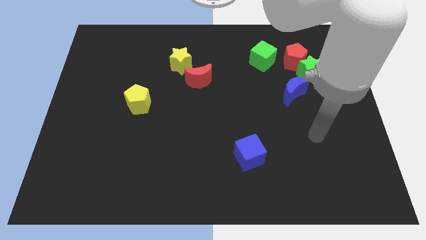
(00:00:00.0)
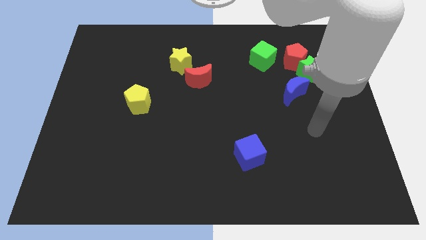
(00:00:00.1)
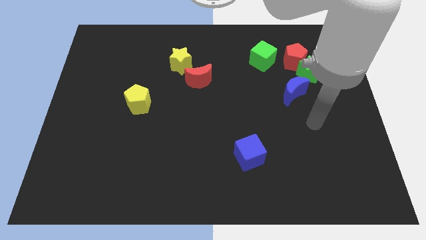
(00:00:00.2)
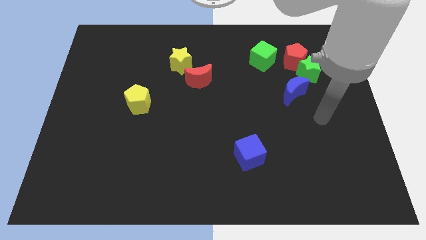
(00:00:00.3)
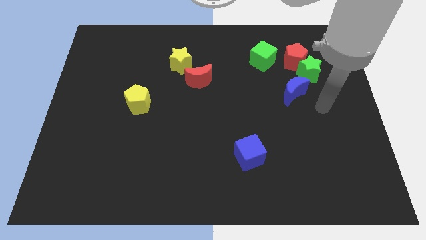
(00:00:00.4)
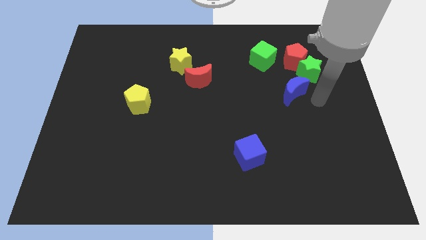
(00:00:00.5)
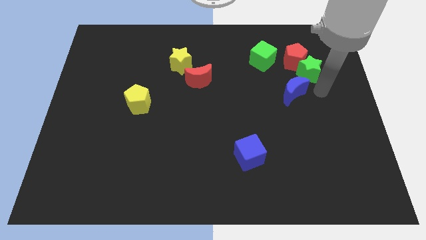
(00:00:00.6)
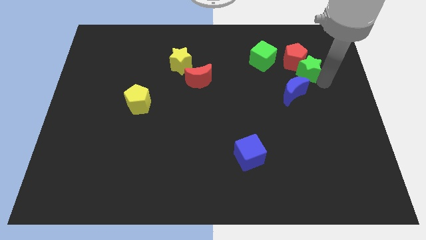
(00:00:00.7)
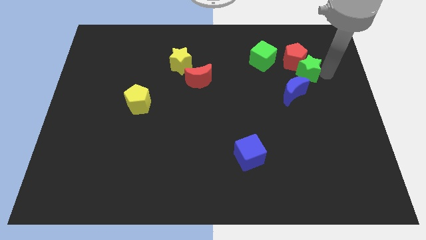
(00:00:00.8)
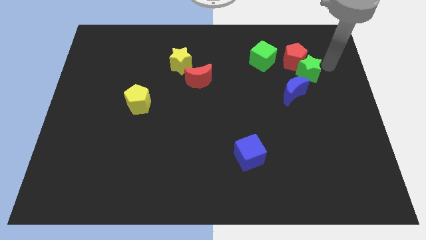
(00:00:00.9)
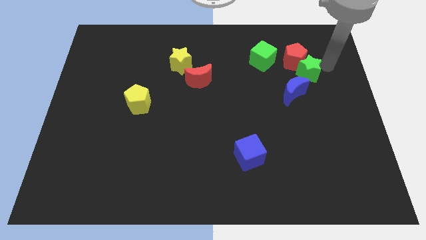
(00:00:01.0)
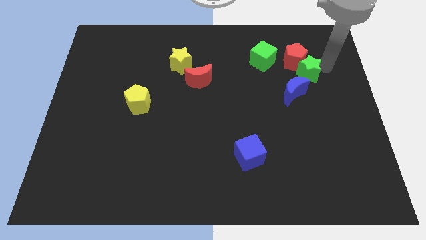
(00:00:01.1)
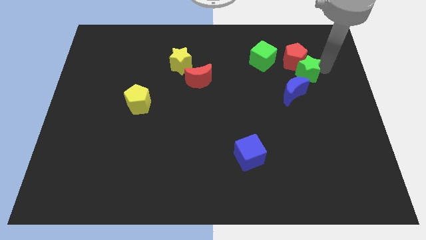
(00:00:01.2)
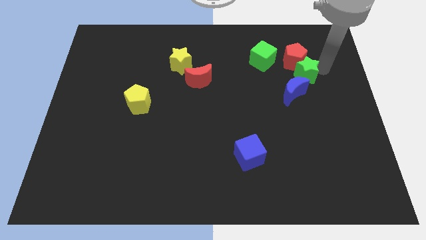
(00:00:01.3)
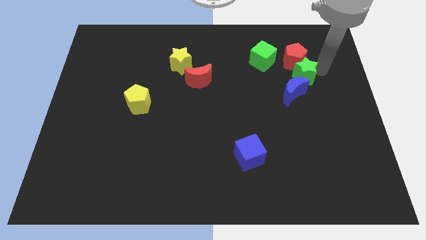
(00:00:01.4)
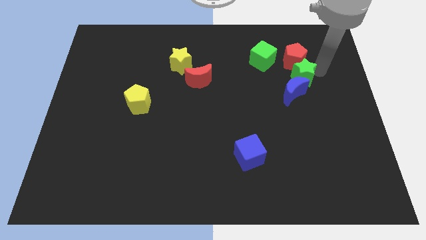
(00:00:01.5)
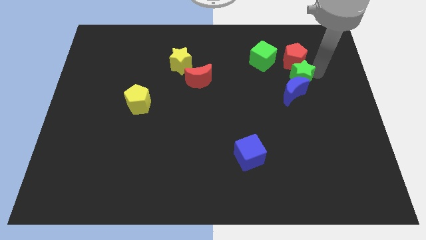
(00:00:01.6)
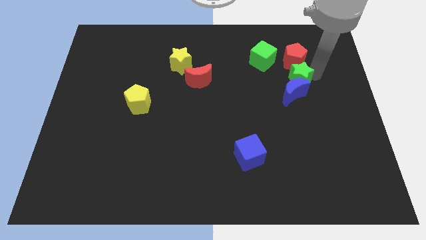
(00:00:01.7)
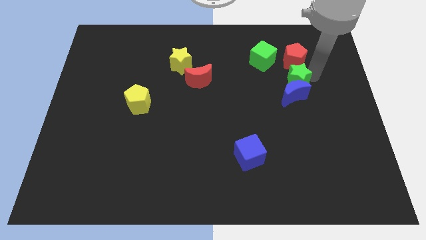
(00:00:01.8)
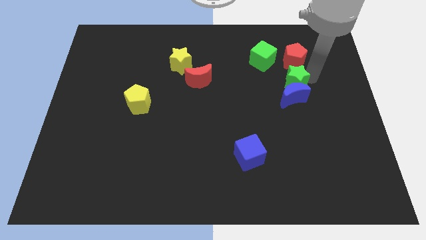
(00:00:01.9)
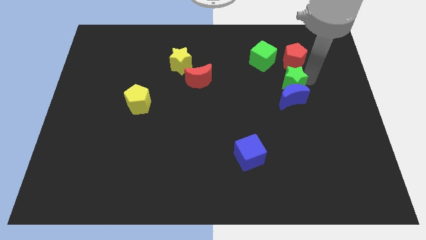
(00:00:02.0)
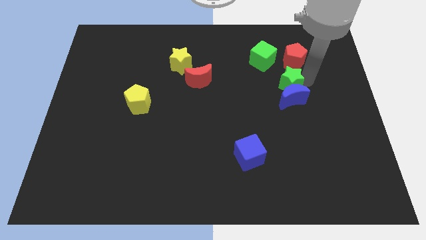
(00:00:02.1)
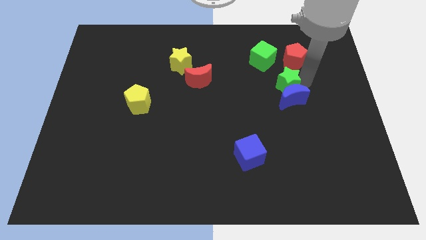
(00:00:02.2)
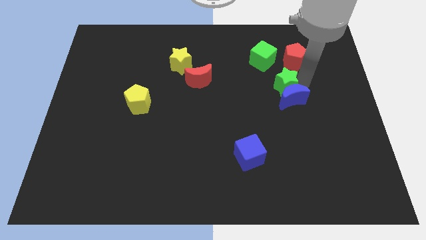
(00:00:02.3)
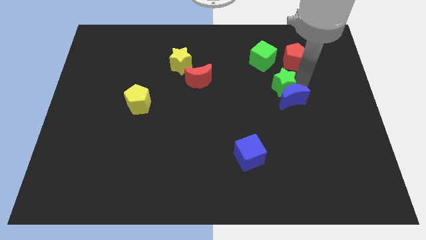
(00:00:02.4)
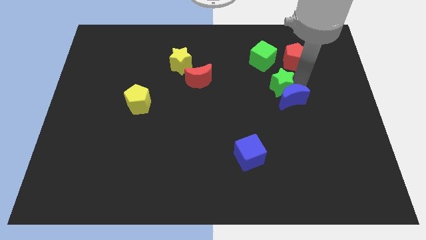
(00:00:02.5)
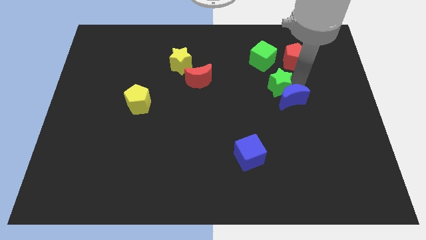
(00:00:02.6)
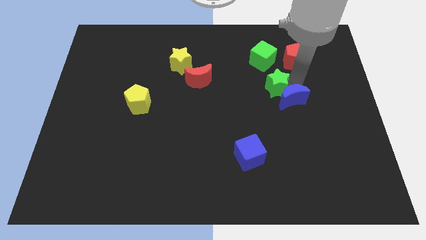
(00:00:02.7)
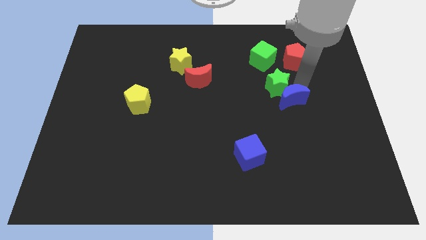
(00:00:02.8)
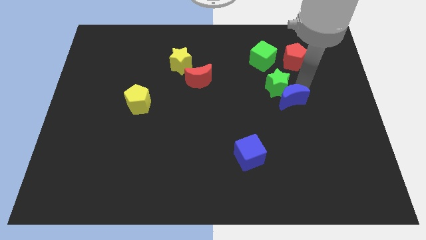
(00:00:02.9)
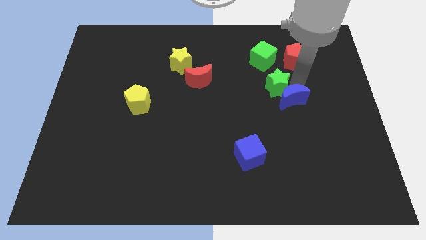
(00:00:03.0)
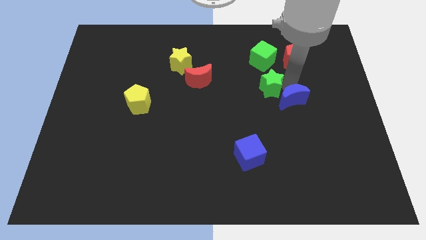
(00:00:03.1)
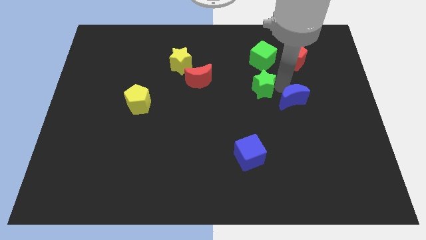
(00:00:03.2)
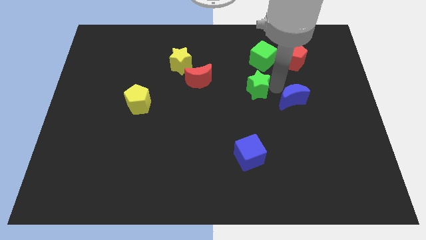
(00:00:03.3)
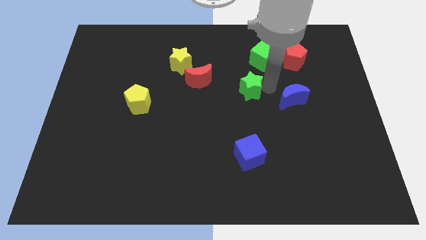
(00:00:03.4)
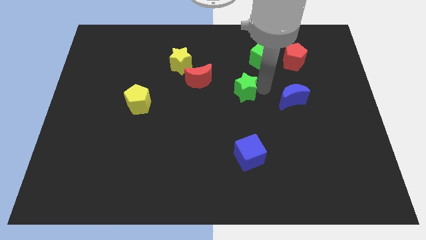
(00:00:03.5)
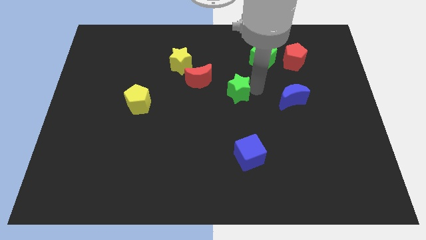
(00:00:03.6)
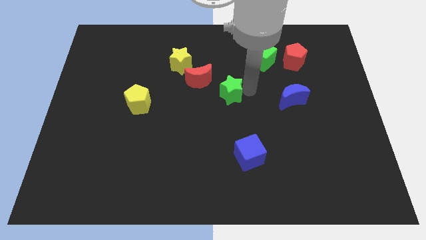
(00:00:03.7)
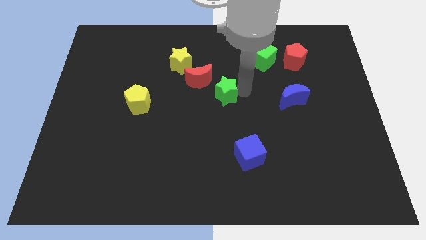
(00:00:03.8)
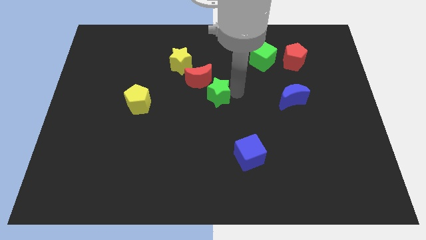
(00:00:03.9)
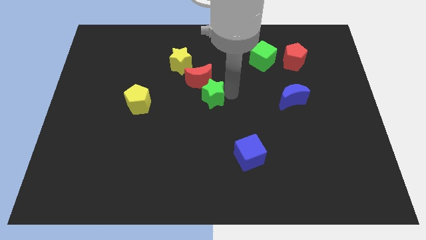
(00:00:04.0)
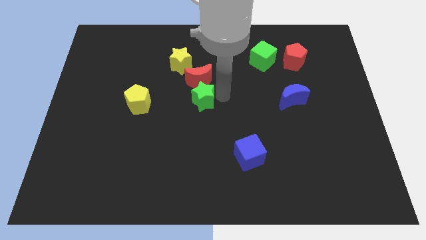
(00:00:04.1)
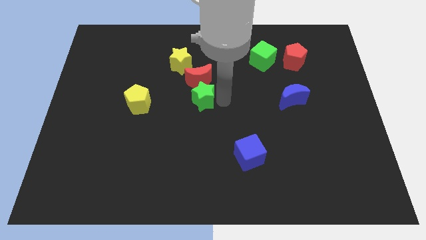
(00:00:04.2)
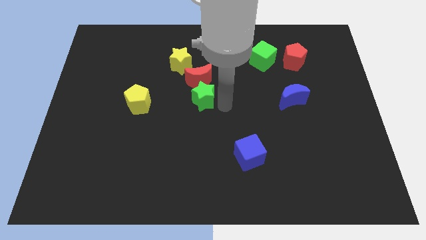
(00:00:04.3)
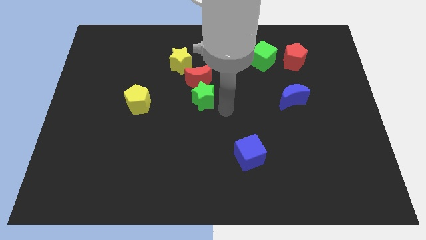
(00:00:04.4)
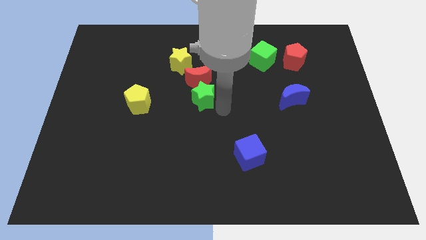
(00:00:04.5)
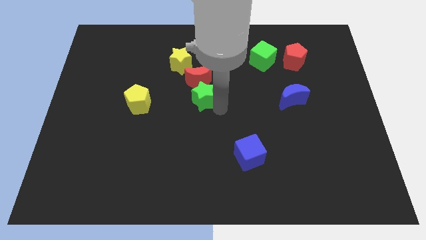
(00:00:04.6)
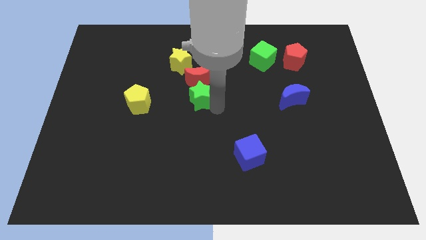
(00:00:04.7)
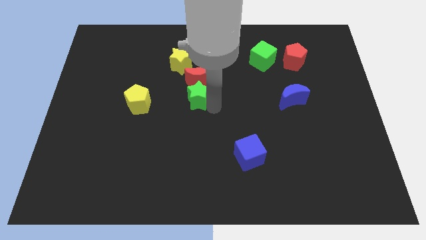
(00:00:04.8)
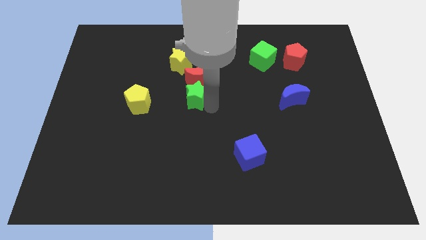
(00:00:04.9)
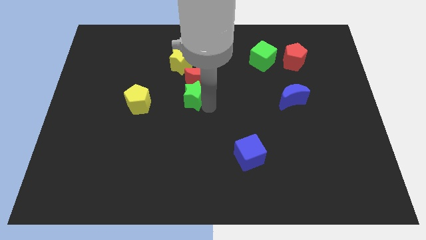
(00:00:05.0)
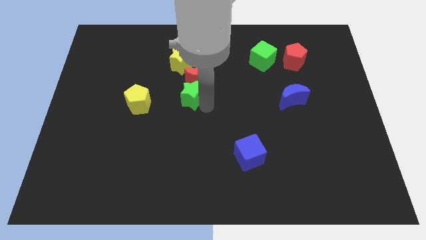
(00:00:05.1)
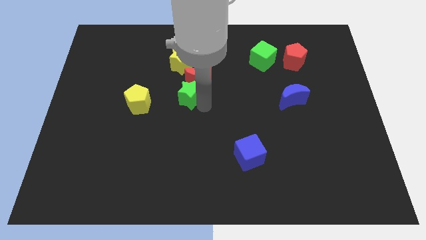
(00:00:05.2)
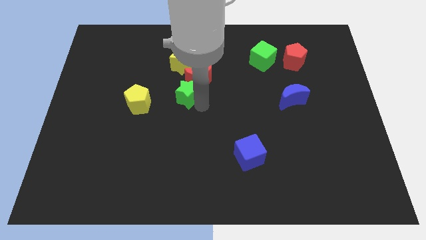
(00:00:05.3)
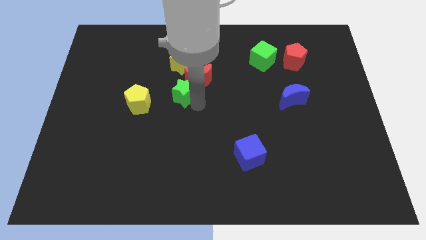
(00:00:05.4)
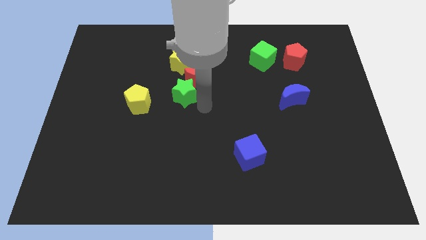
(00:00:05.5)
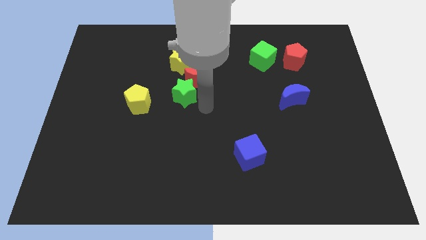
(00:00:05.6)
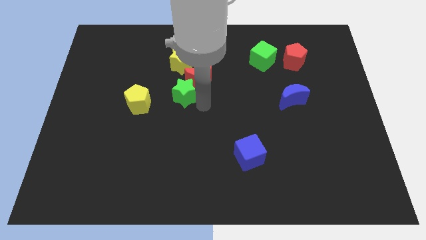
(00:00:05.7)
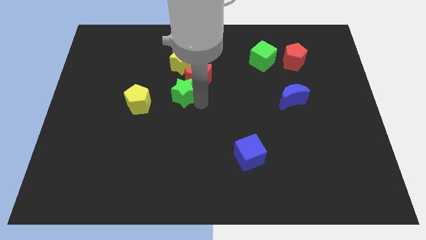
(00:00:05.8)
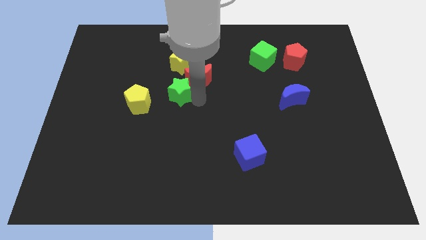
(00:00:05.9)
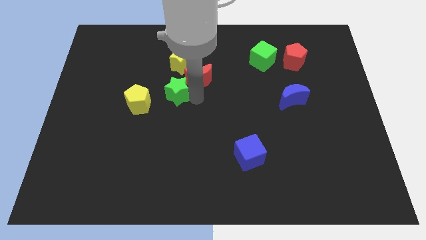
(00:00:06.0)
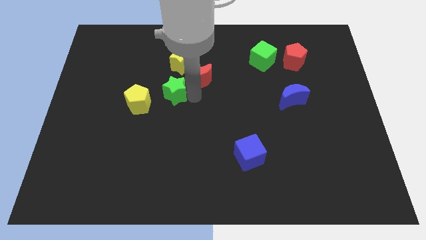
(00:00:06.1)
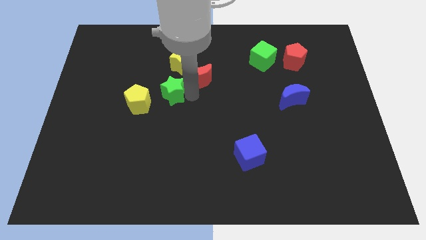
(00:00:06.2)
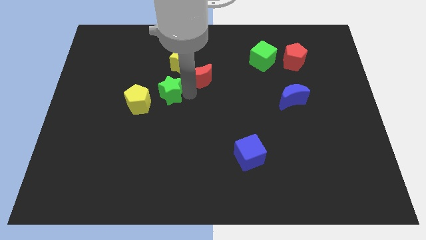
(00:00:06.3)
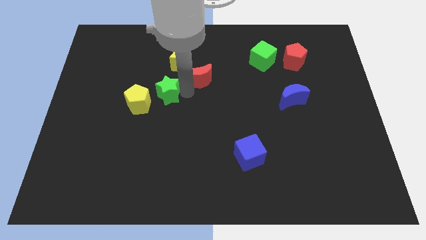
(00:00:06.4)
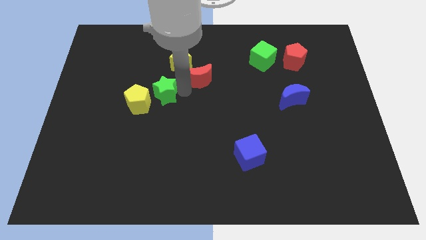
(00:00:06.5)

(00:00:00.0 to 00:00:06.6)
put the green star to the bottom left of the yellow star
